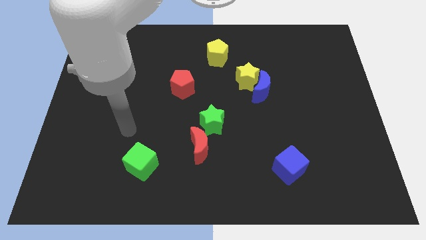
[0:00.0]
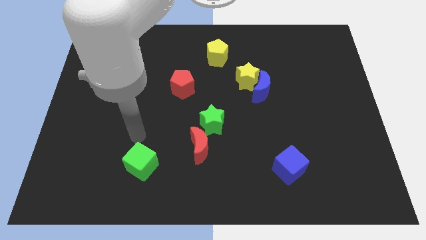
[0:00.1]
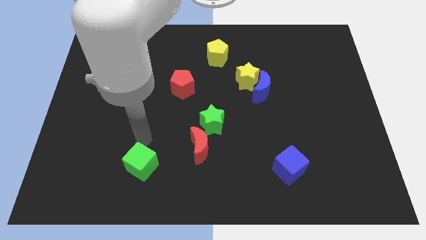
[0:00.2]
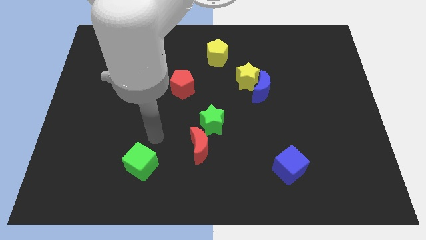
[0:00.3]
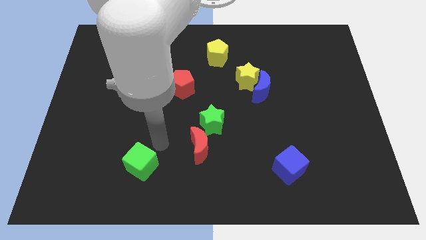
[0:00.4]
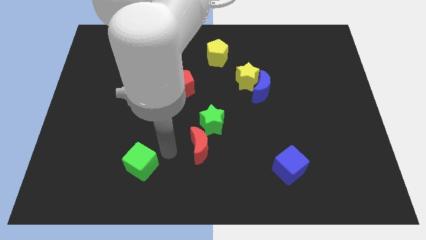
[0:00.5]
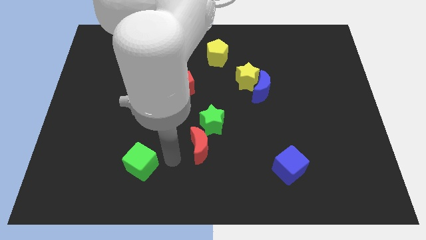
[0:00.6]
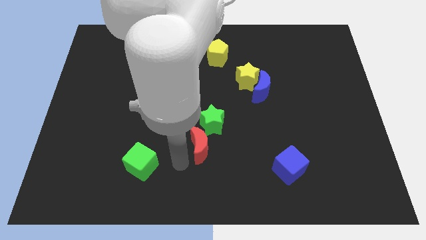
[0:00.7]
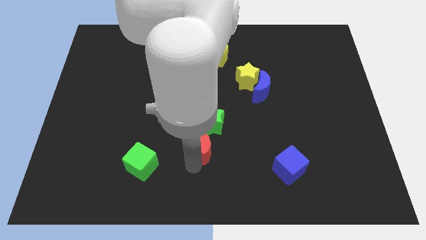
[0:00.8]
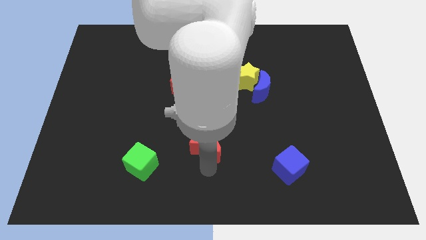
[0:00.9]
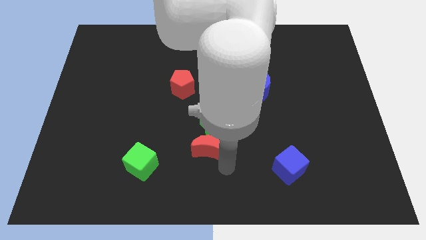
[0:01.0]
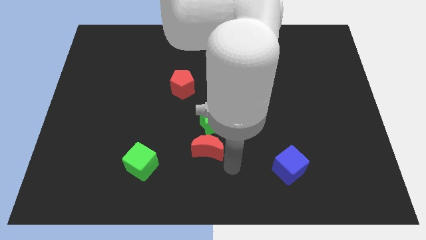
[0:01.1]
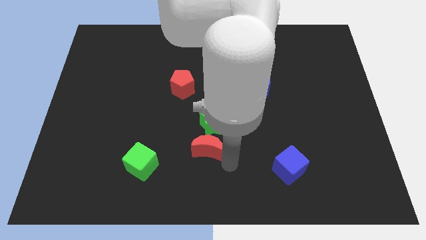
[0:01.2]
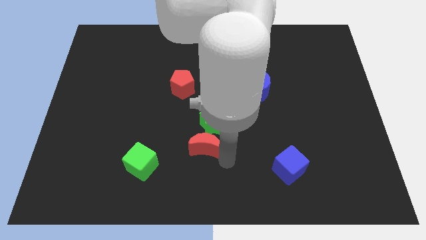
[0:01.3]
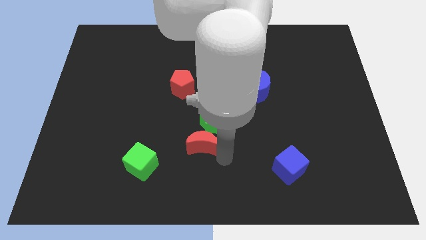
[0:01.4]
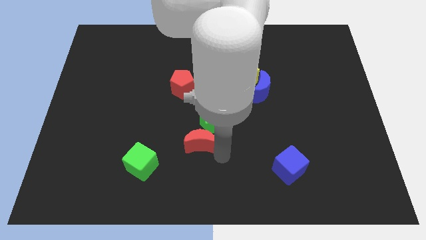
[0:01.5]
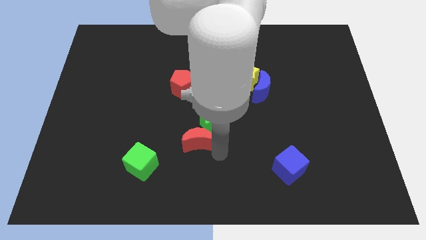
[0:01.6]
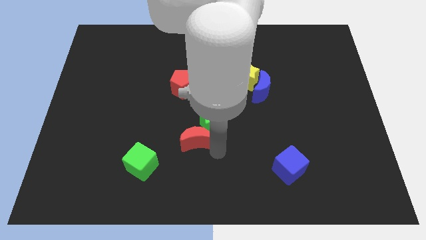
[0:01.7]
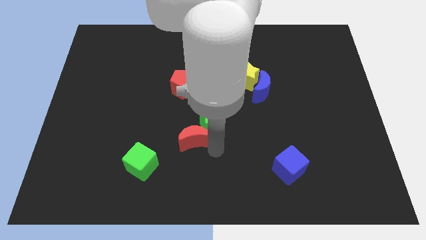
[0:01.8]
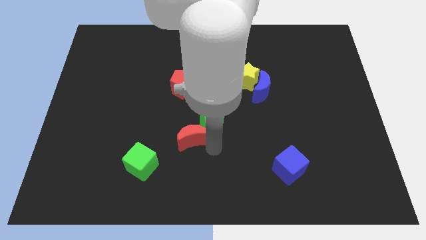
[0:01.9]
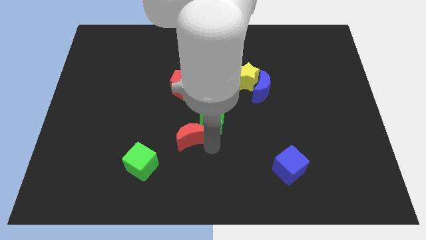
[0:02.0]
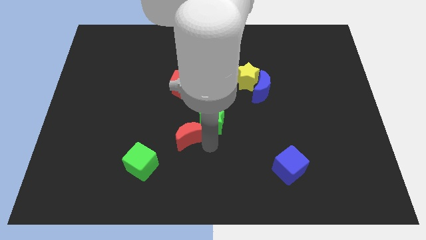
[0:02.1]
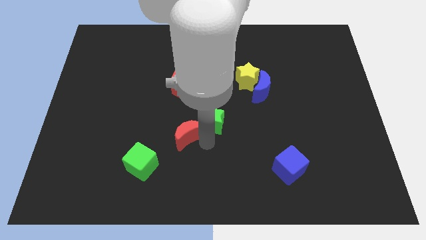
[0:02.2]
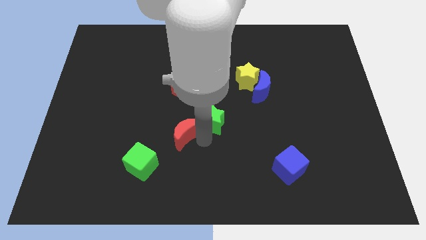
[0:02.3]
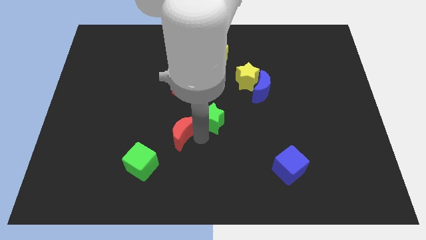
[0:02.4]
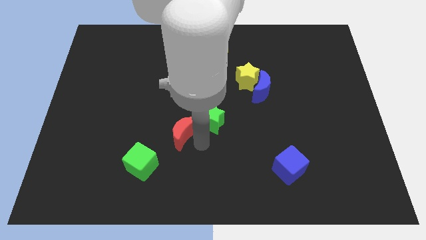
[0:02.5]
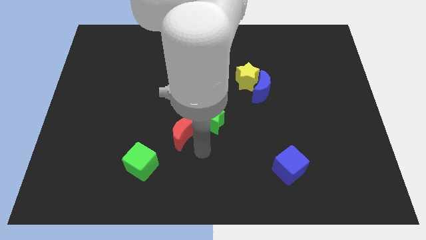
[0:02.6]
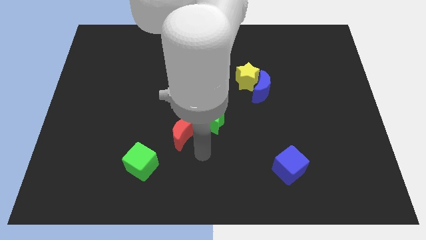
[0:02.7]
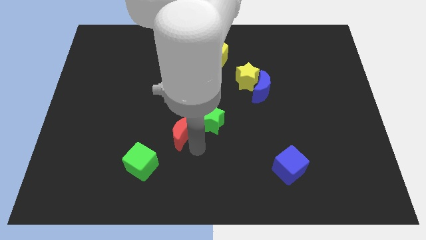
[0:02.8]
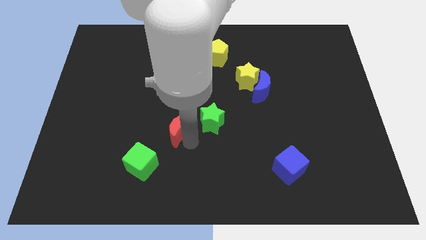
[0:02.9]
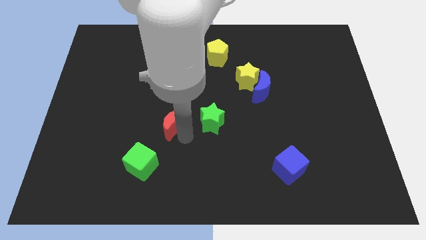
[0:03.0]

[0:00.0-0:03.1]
move the red moon a little up and then left

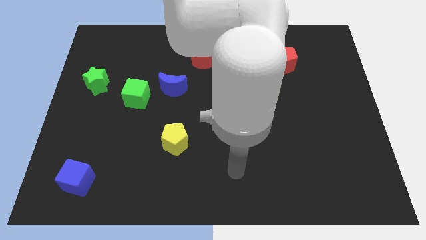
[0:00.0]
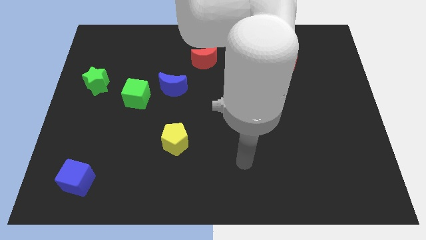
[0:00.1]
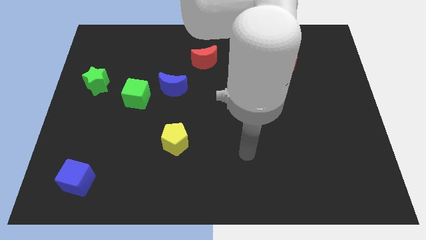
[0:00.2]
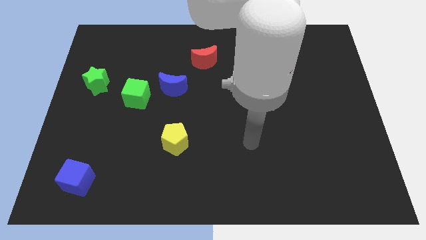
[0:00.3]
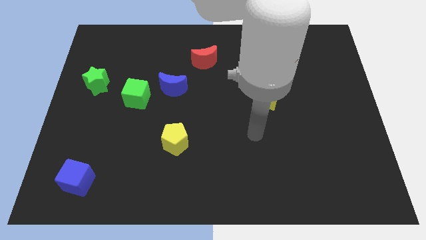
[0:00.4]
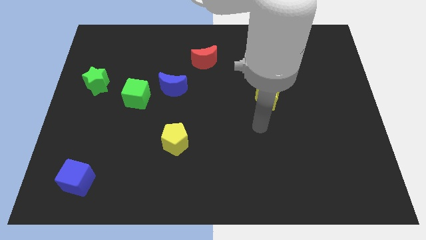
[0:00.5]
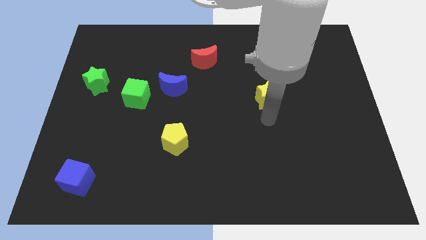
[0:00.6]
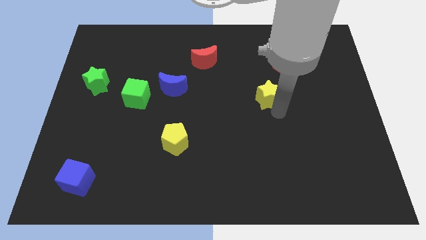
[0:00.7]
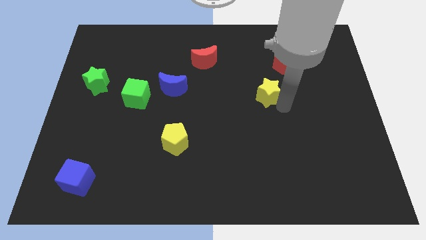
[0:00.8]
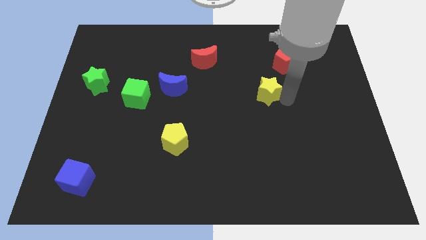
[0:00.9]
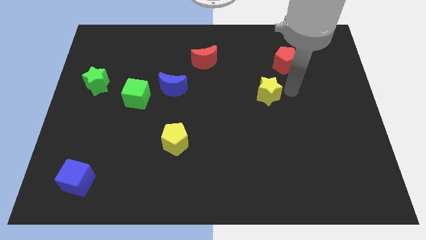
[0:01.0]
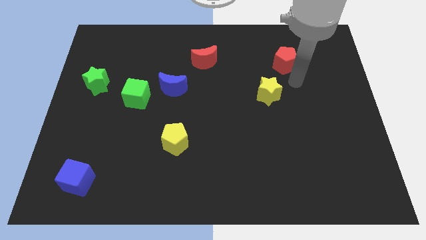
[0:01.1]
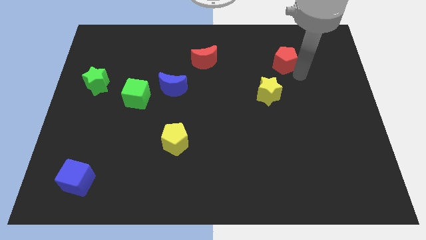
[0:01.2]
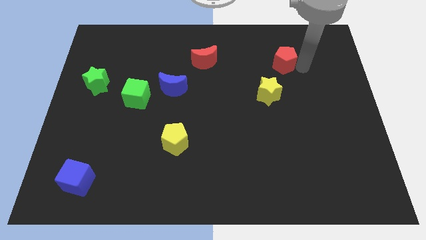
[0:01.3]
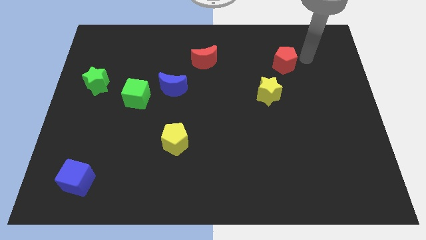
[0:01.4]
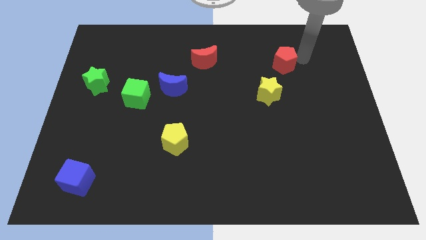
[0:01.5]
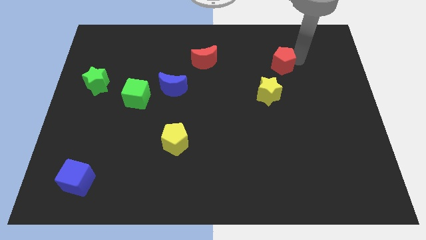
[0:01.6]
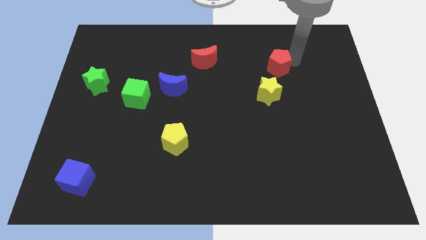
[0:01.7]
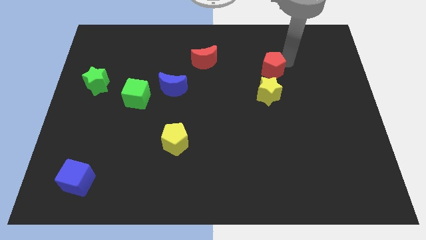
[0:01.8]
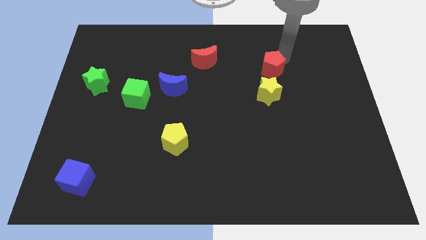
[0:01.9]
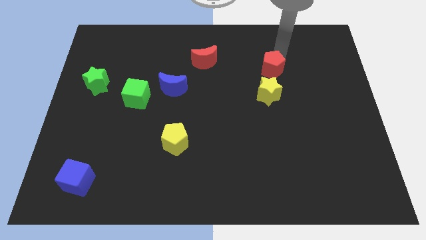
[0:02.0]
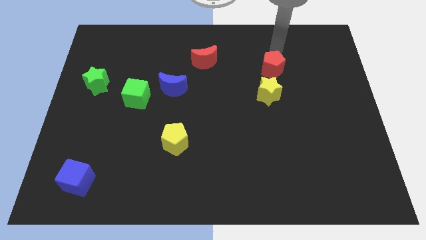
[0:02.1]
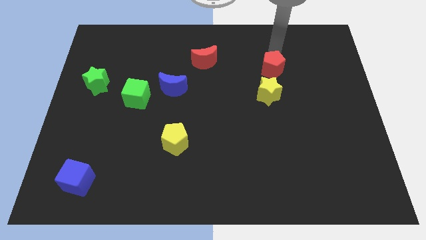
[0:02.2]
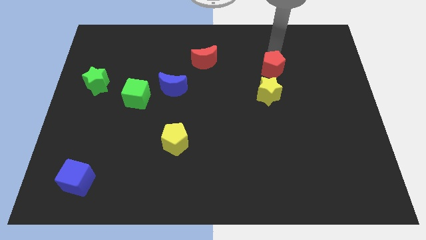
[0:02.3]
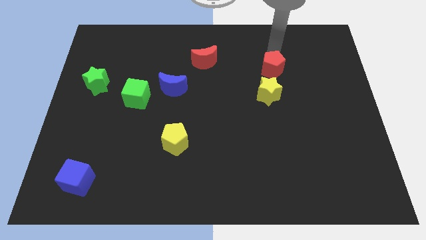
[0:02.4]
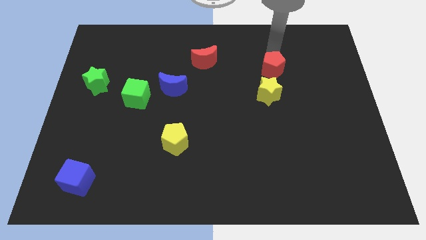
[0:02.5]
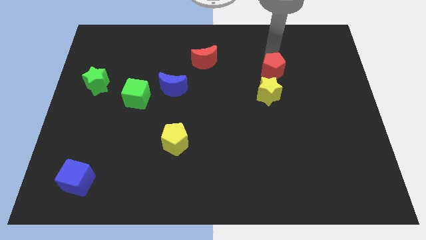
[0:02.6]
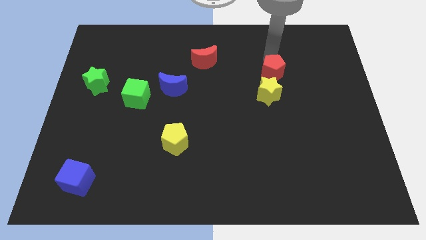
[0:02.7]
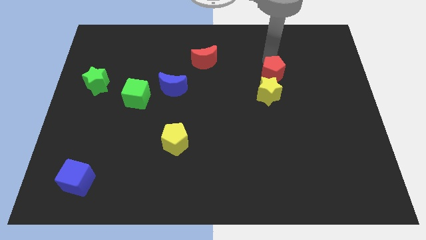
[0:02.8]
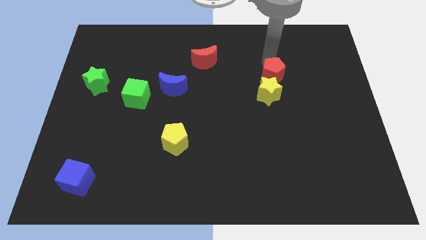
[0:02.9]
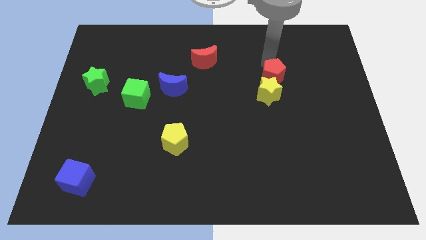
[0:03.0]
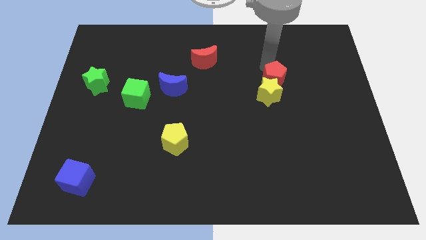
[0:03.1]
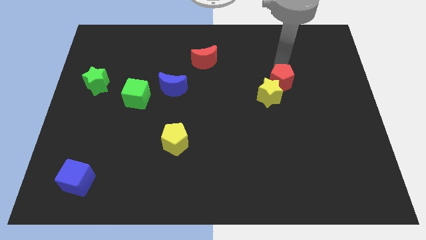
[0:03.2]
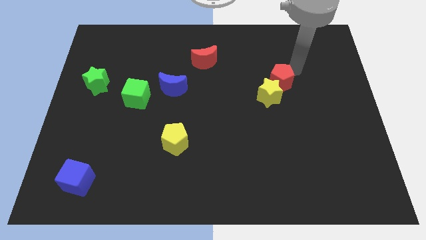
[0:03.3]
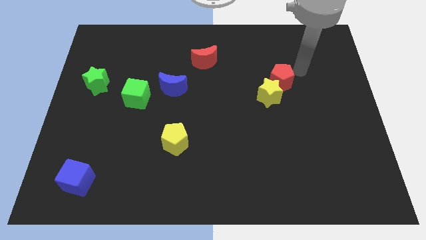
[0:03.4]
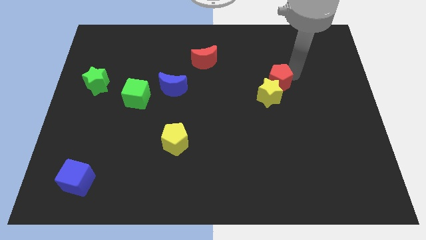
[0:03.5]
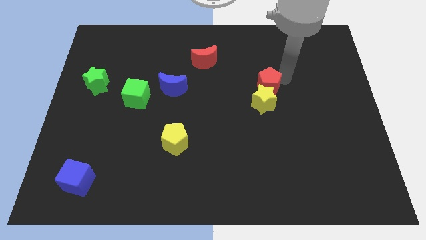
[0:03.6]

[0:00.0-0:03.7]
move the red pentagon a little bit downwards and then left

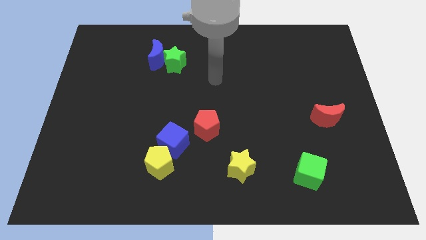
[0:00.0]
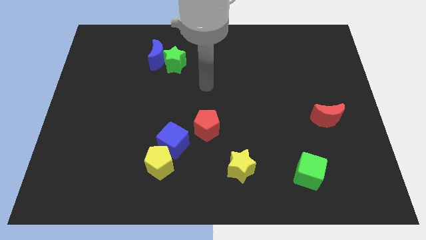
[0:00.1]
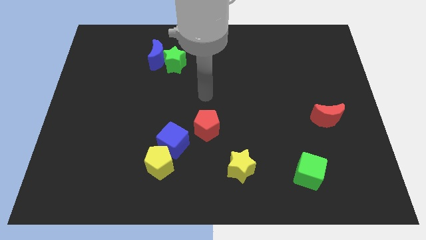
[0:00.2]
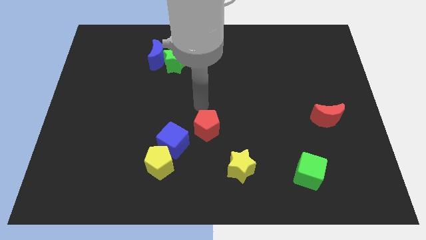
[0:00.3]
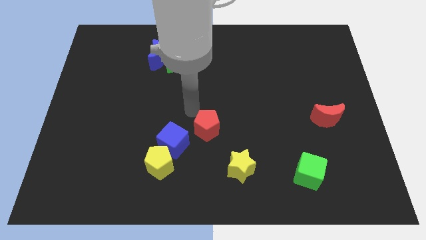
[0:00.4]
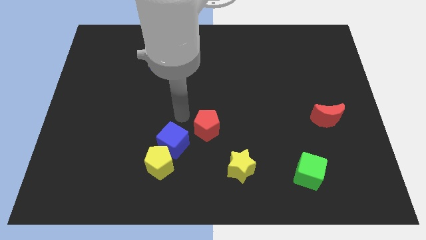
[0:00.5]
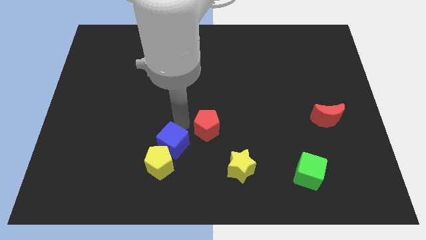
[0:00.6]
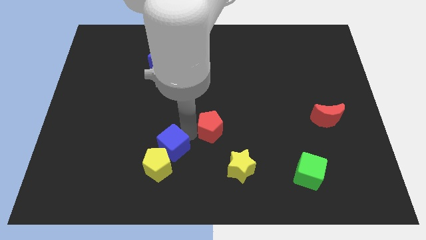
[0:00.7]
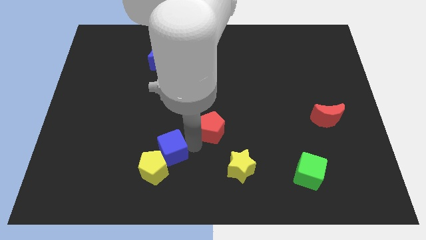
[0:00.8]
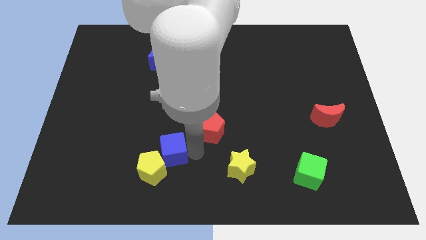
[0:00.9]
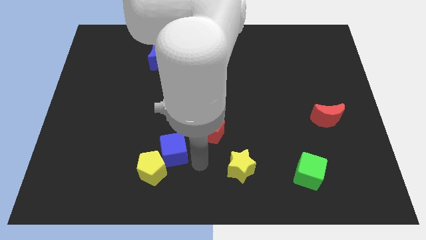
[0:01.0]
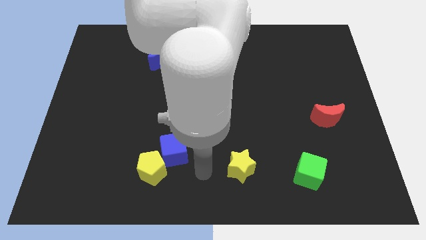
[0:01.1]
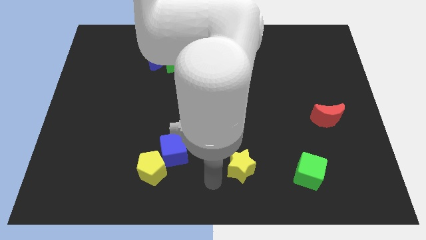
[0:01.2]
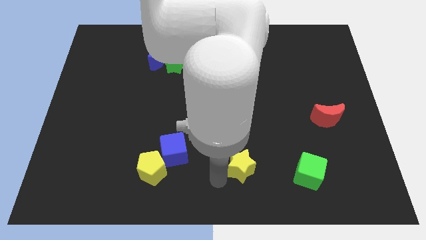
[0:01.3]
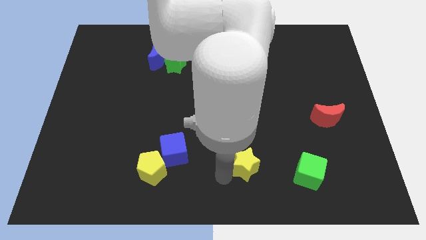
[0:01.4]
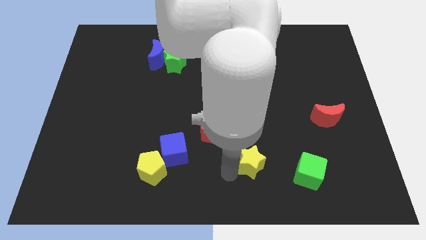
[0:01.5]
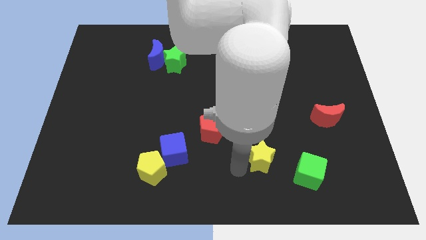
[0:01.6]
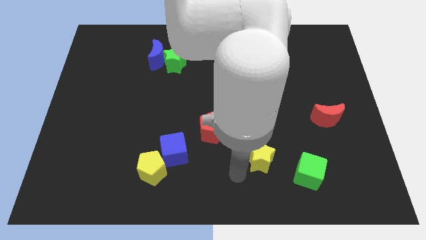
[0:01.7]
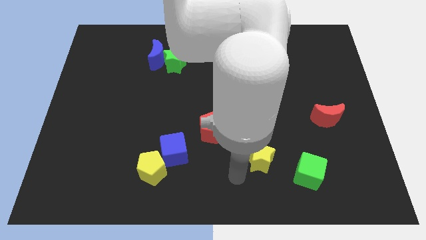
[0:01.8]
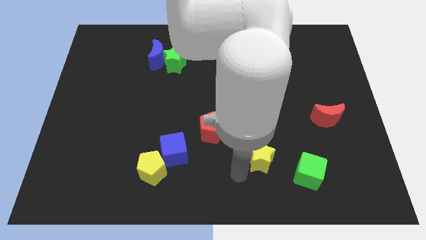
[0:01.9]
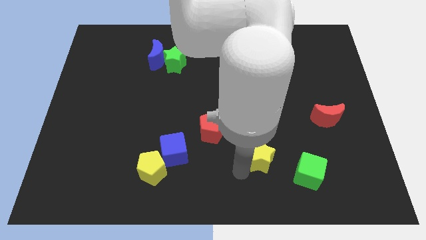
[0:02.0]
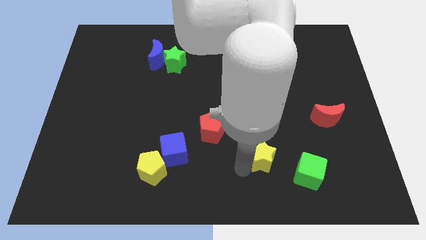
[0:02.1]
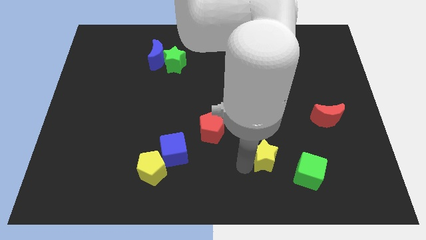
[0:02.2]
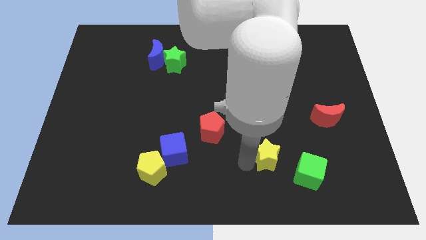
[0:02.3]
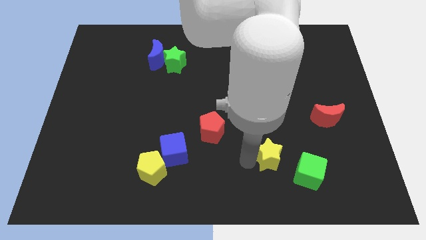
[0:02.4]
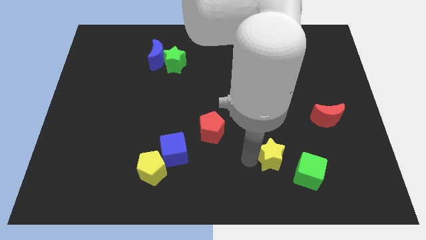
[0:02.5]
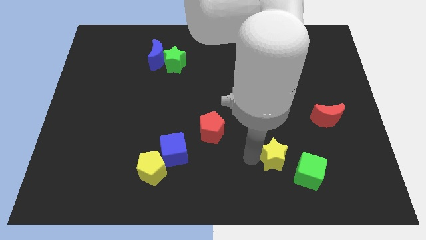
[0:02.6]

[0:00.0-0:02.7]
slide the yellow star to the right a little bit
